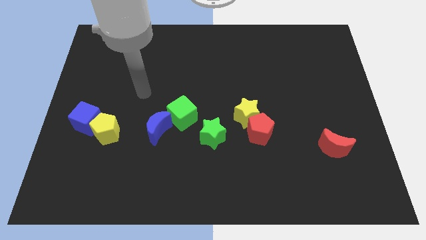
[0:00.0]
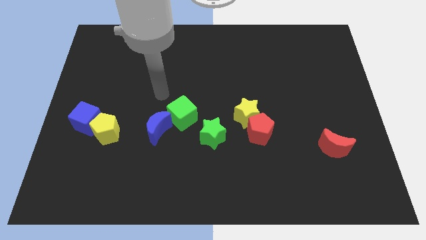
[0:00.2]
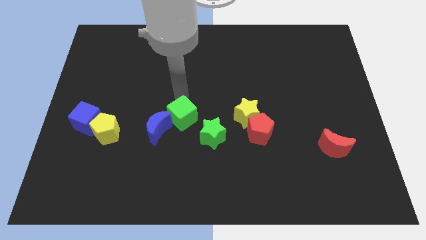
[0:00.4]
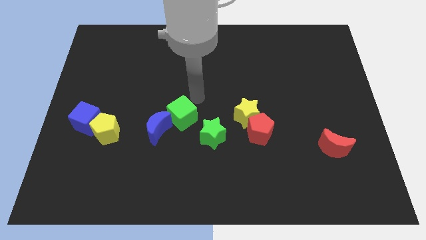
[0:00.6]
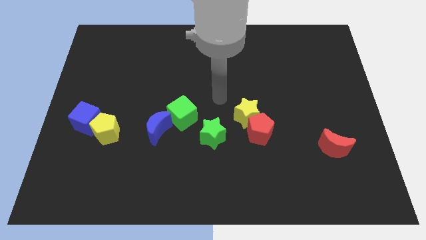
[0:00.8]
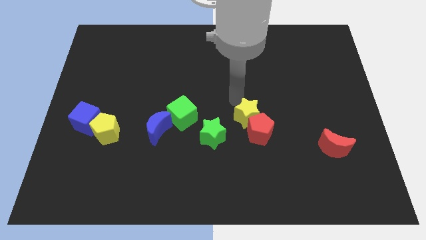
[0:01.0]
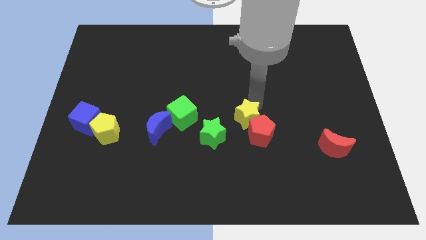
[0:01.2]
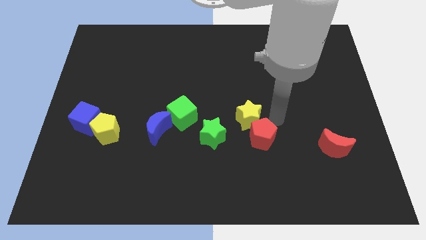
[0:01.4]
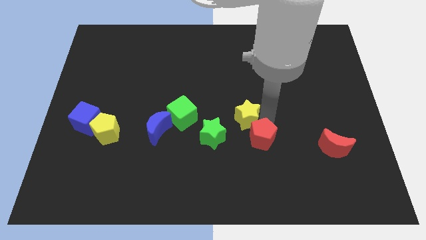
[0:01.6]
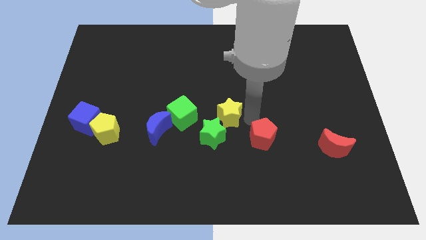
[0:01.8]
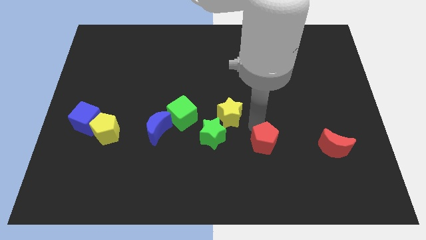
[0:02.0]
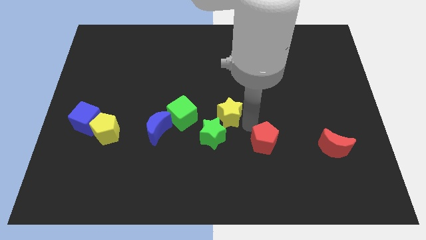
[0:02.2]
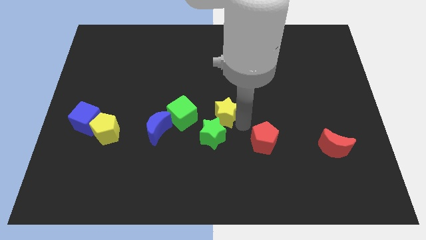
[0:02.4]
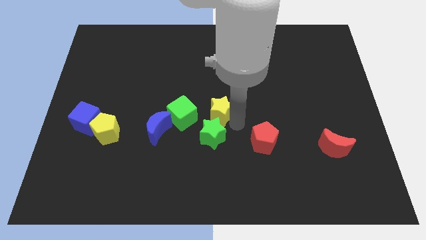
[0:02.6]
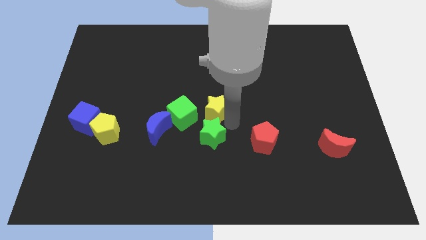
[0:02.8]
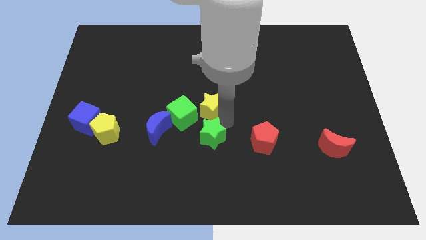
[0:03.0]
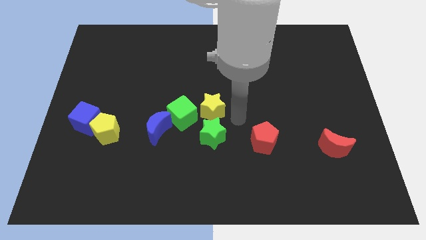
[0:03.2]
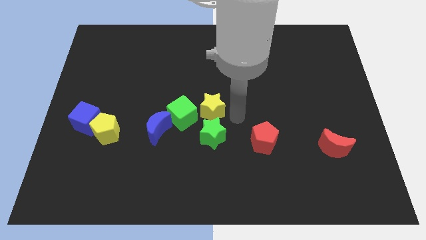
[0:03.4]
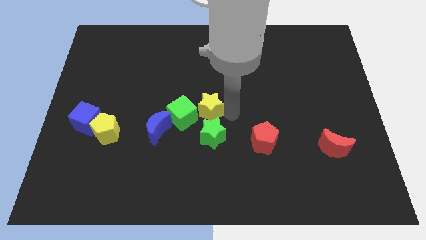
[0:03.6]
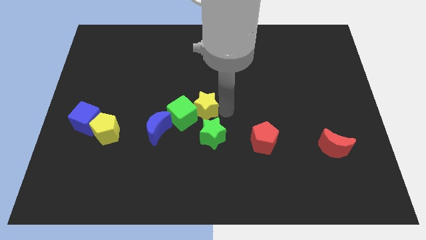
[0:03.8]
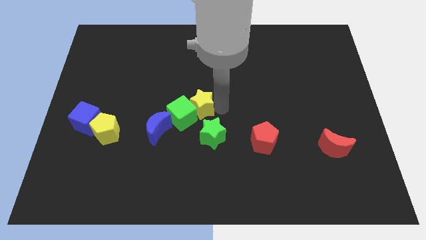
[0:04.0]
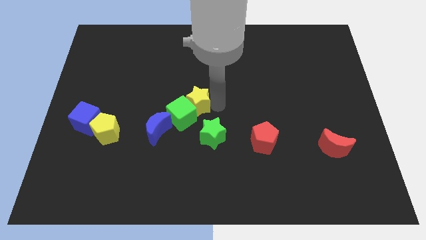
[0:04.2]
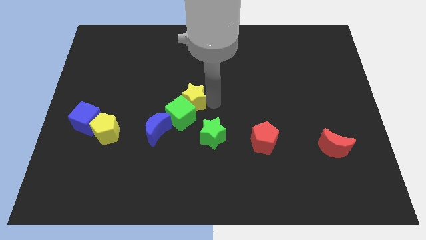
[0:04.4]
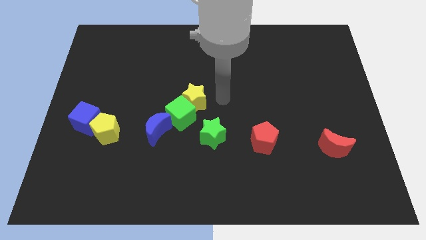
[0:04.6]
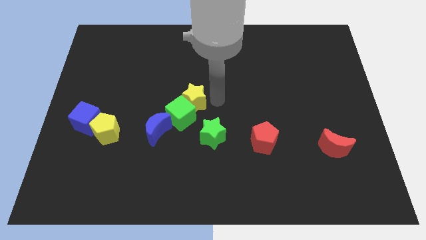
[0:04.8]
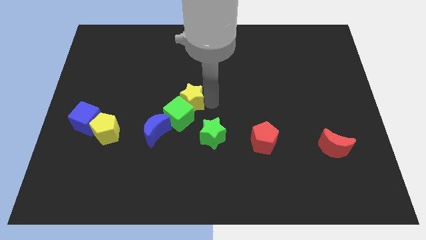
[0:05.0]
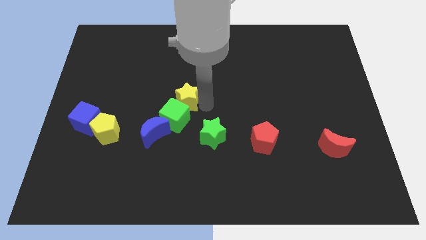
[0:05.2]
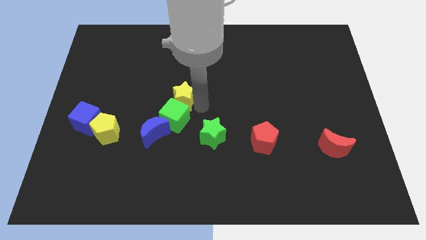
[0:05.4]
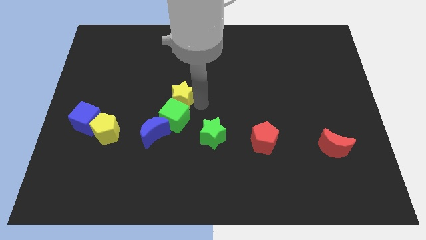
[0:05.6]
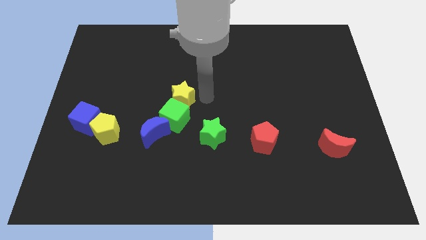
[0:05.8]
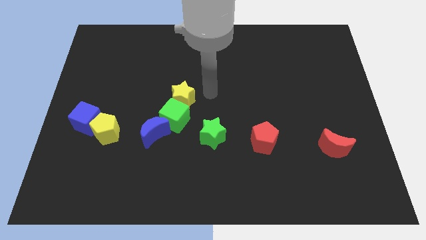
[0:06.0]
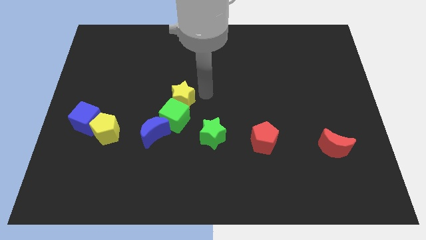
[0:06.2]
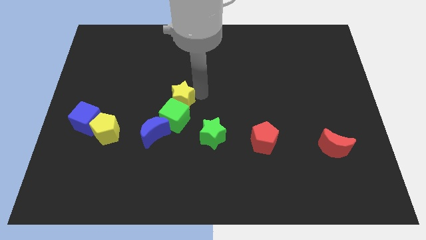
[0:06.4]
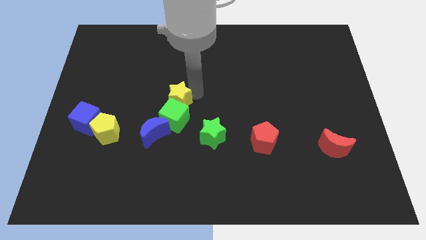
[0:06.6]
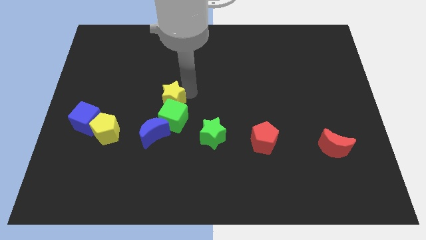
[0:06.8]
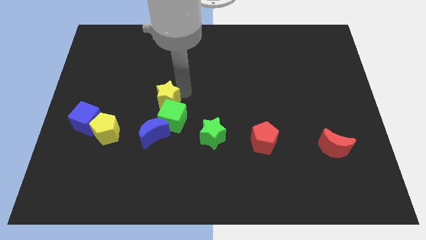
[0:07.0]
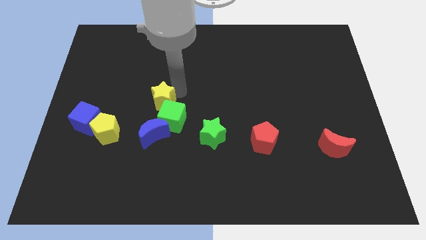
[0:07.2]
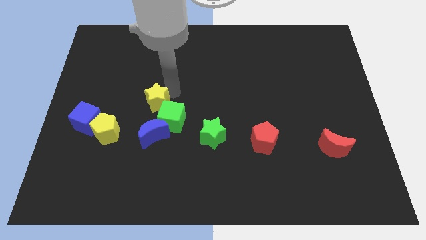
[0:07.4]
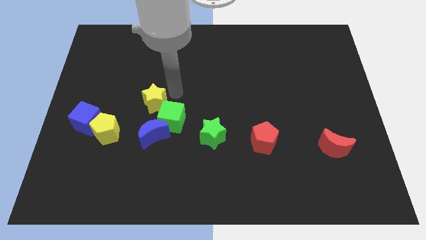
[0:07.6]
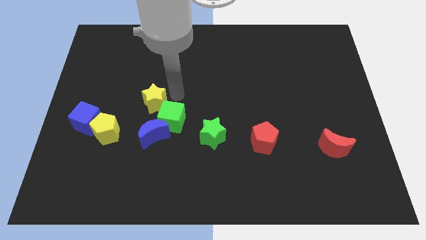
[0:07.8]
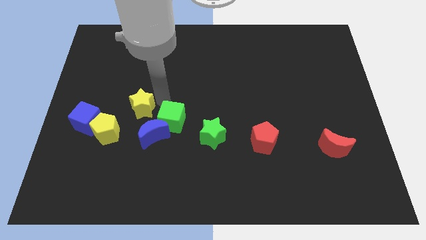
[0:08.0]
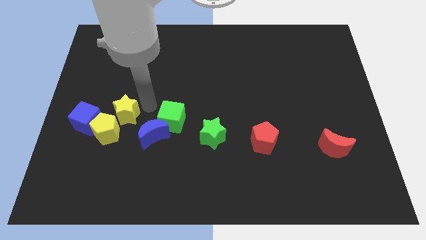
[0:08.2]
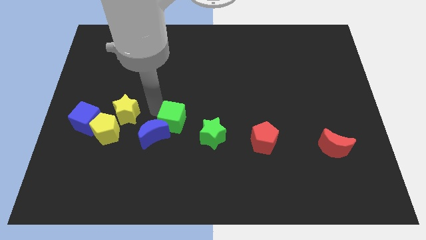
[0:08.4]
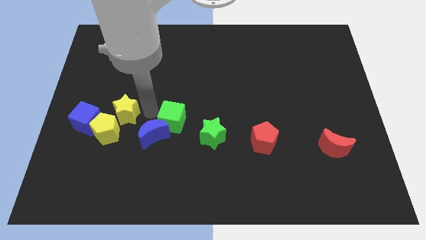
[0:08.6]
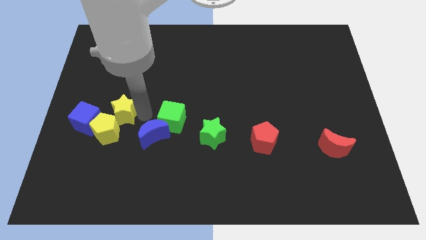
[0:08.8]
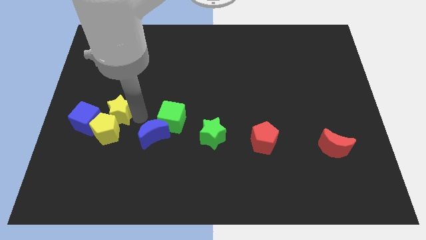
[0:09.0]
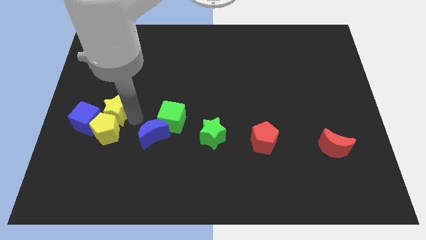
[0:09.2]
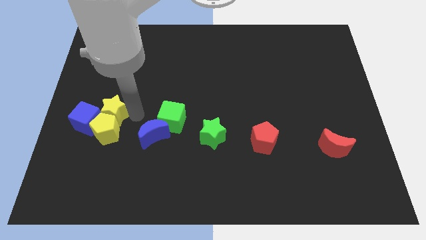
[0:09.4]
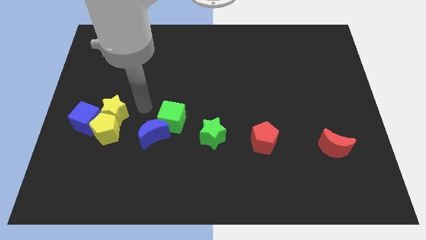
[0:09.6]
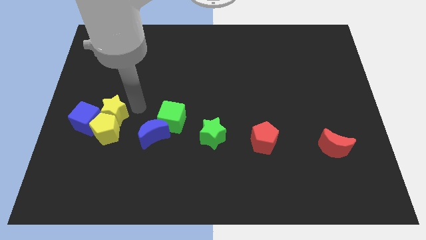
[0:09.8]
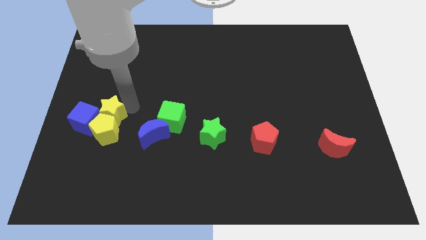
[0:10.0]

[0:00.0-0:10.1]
push the yellow star towards the blue cube

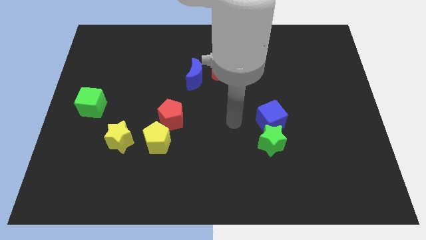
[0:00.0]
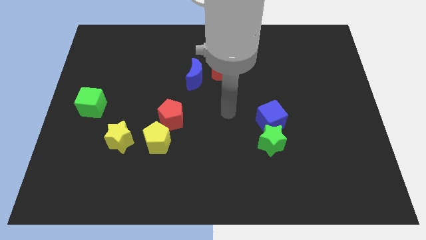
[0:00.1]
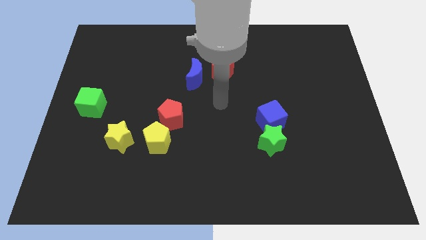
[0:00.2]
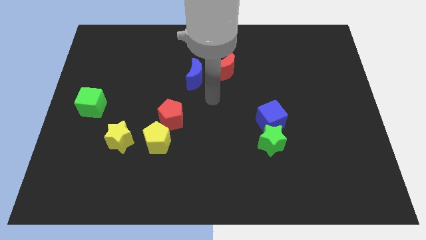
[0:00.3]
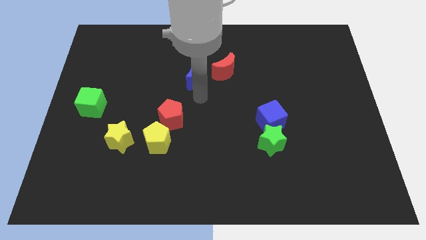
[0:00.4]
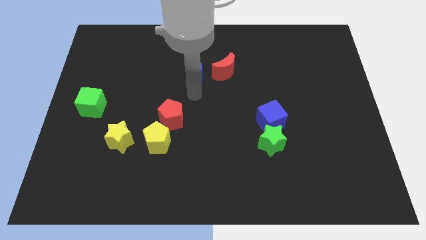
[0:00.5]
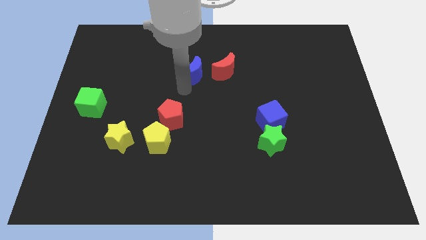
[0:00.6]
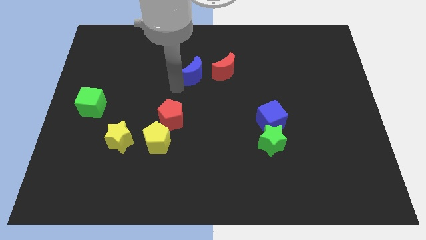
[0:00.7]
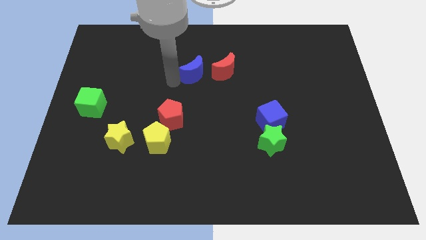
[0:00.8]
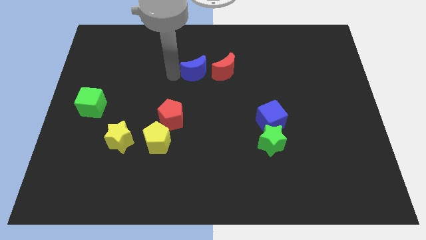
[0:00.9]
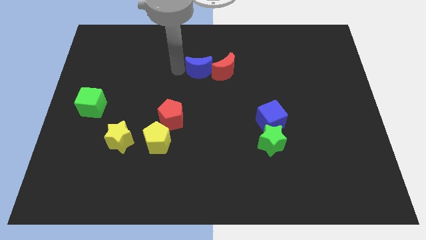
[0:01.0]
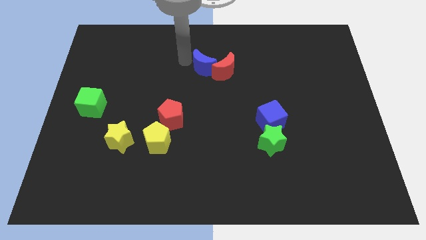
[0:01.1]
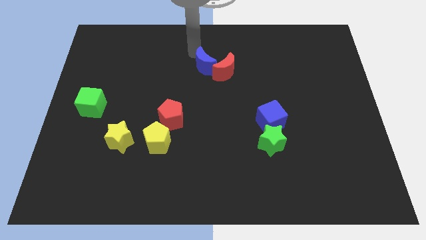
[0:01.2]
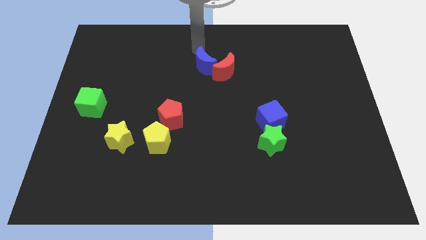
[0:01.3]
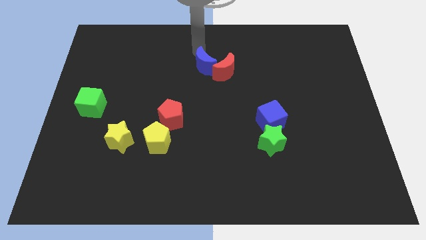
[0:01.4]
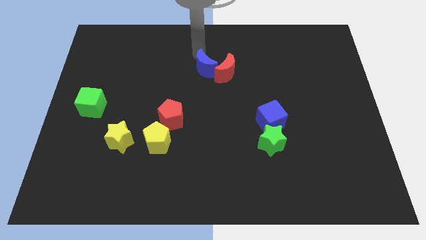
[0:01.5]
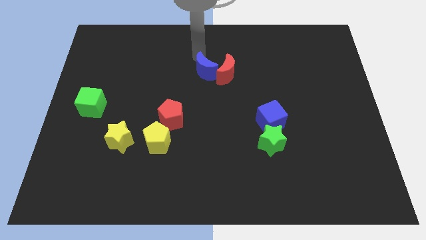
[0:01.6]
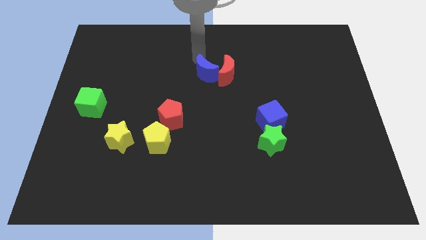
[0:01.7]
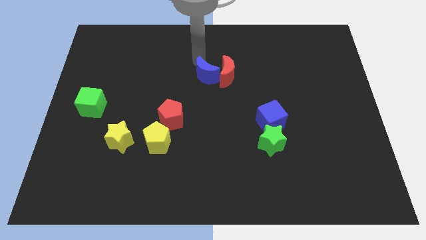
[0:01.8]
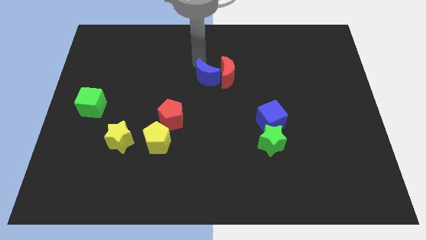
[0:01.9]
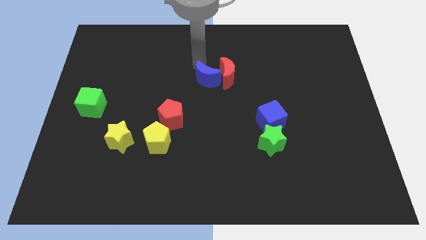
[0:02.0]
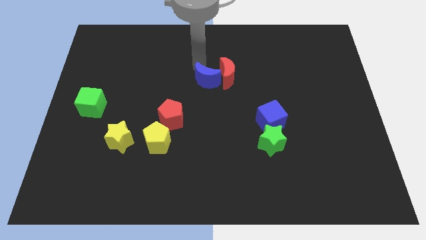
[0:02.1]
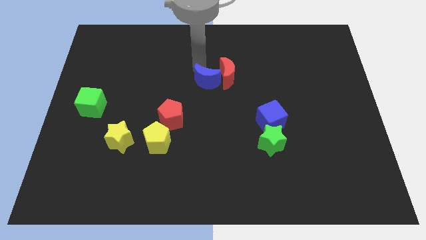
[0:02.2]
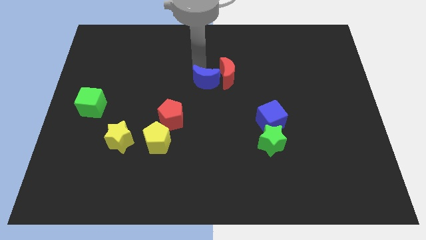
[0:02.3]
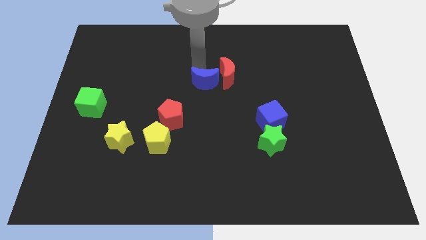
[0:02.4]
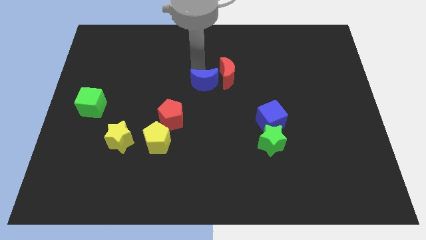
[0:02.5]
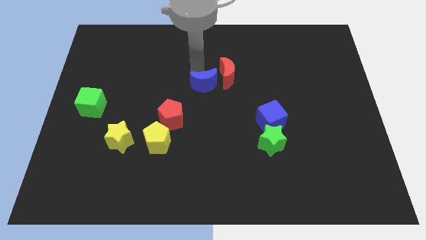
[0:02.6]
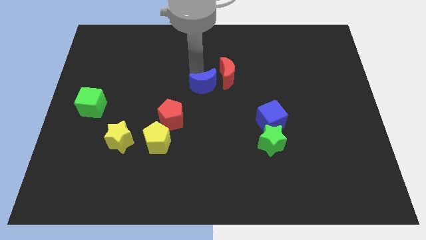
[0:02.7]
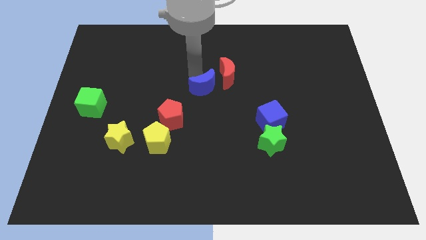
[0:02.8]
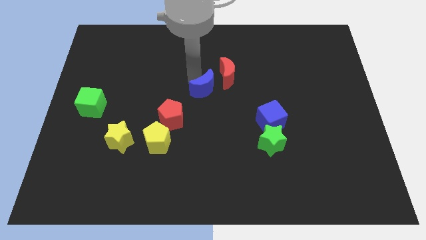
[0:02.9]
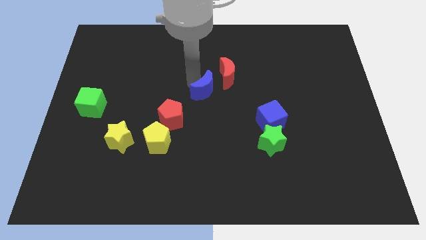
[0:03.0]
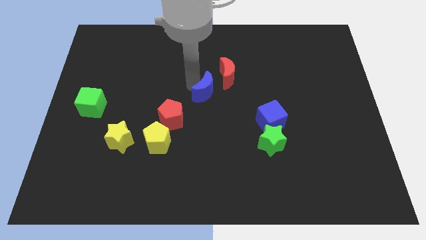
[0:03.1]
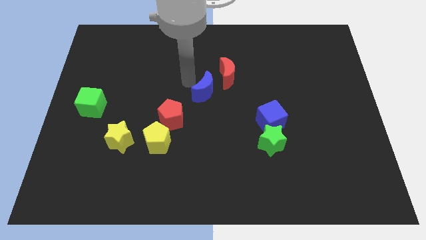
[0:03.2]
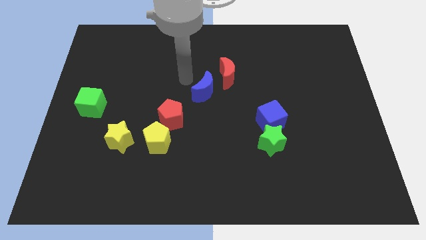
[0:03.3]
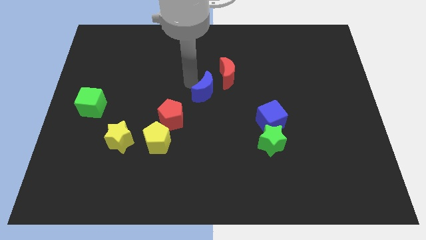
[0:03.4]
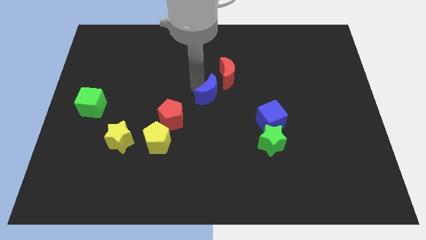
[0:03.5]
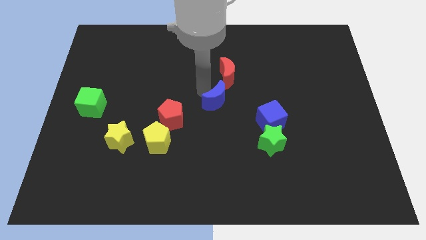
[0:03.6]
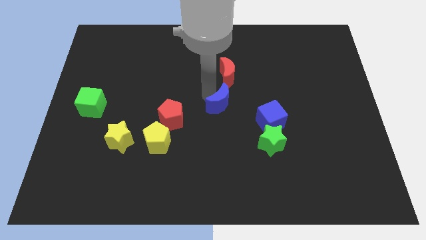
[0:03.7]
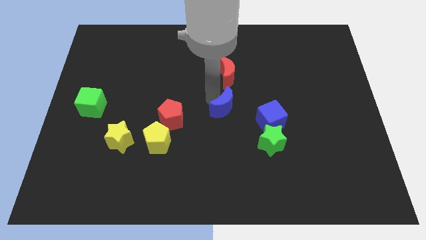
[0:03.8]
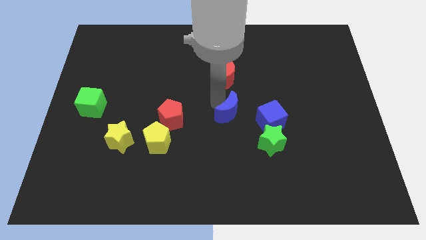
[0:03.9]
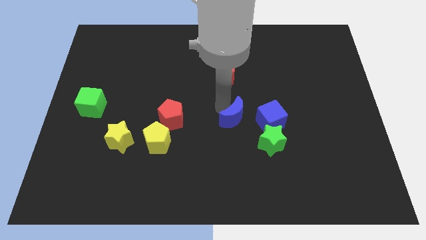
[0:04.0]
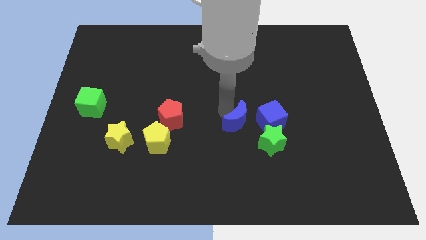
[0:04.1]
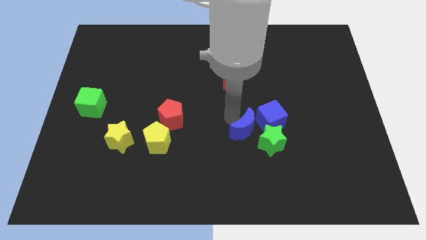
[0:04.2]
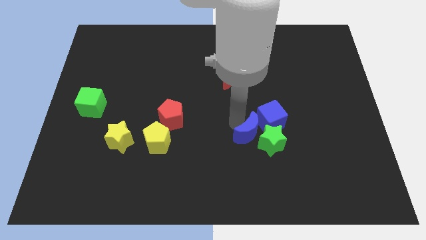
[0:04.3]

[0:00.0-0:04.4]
move the blue moon towards the green star
